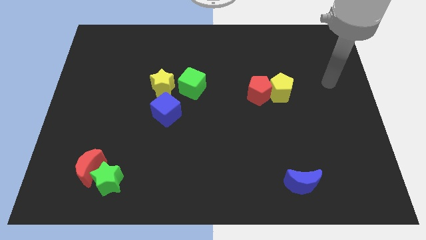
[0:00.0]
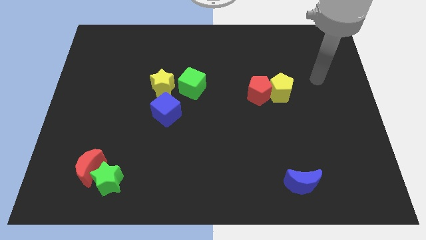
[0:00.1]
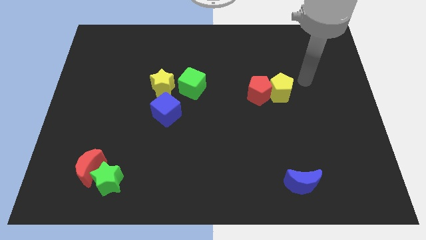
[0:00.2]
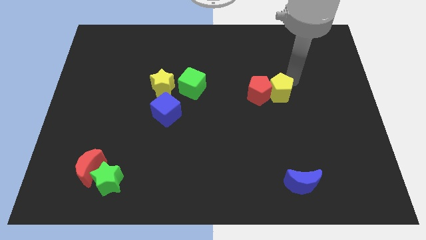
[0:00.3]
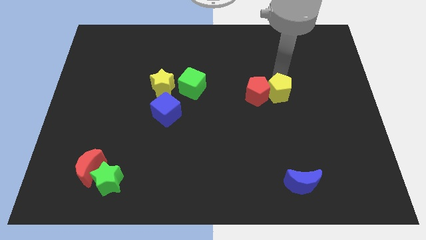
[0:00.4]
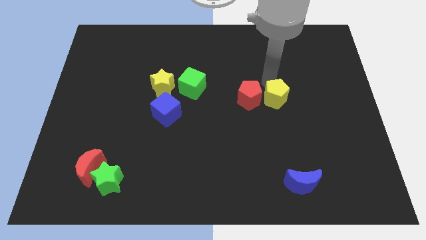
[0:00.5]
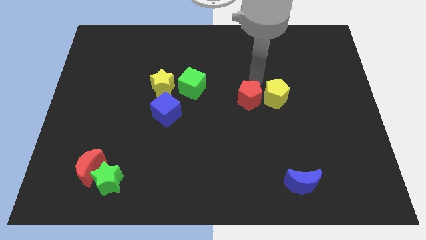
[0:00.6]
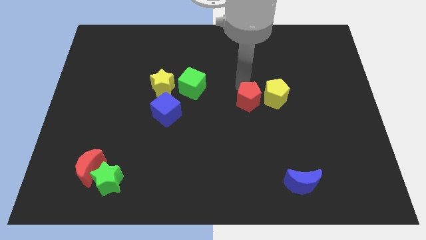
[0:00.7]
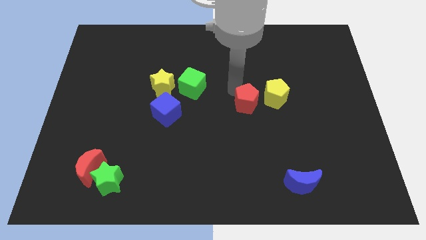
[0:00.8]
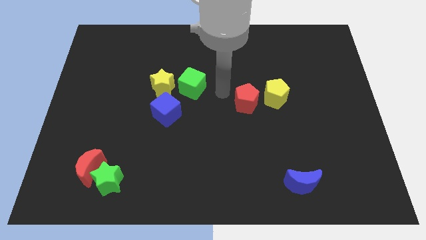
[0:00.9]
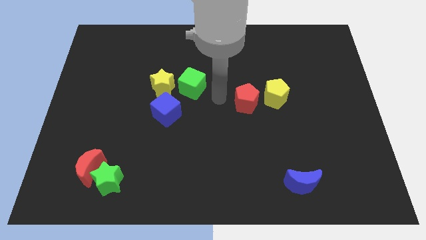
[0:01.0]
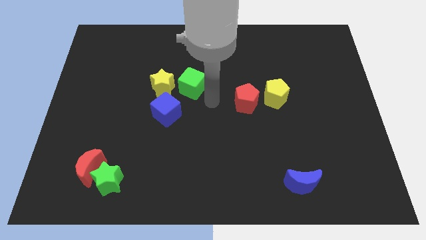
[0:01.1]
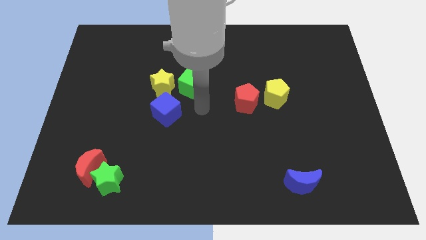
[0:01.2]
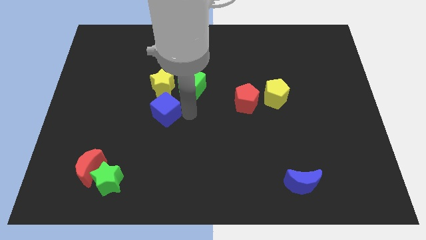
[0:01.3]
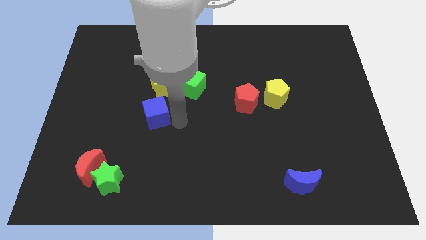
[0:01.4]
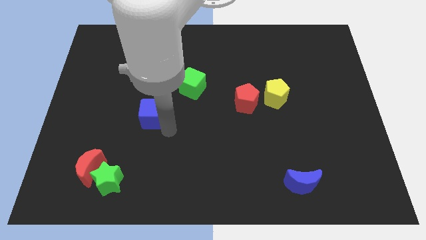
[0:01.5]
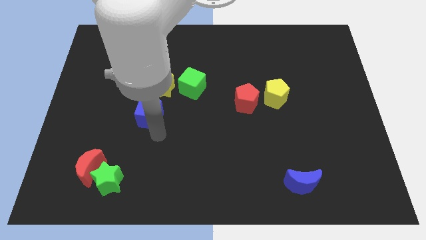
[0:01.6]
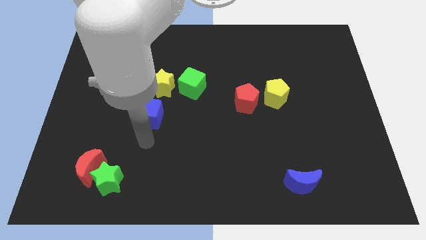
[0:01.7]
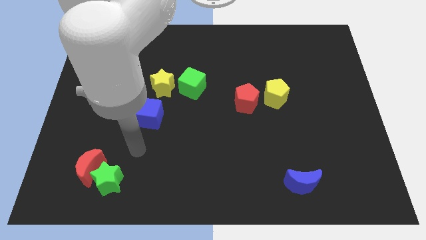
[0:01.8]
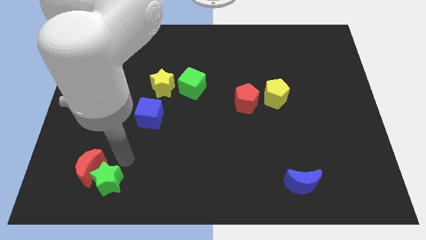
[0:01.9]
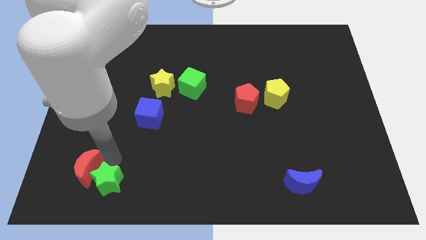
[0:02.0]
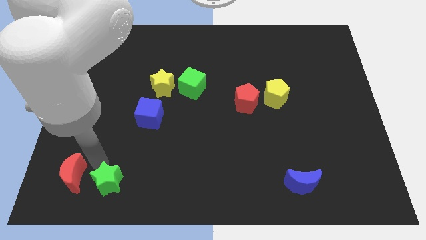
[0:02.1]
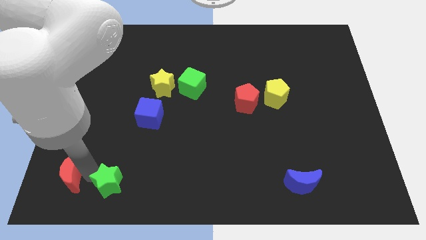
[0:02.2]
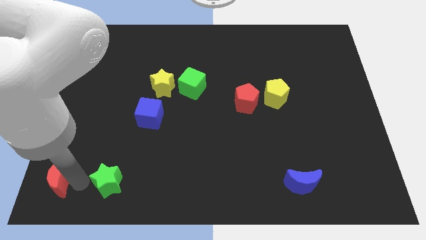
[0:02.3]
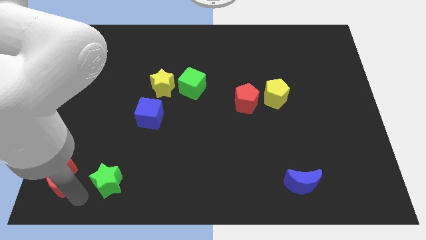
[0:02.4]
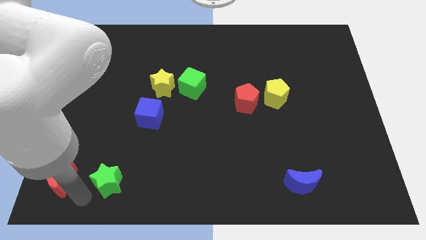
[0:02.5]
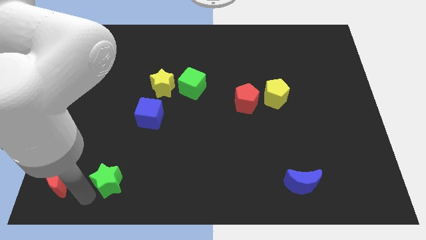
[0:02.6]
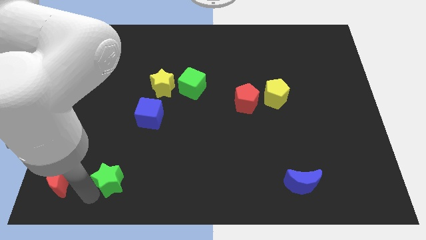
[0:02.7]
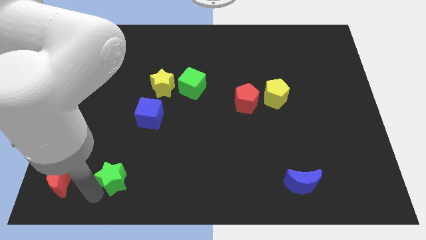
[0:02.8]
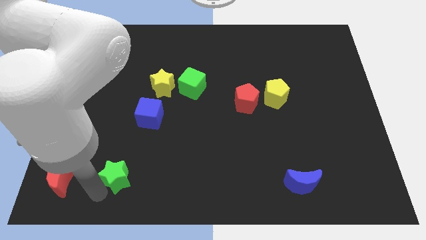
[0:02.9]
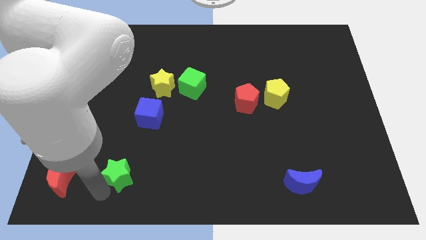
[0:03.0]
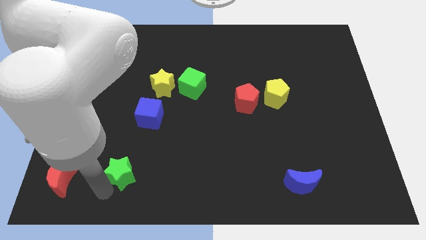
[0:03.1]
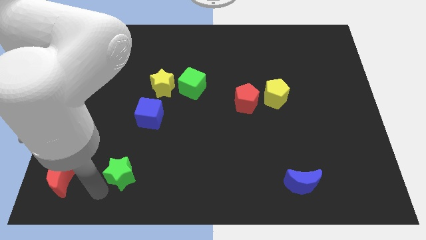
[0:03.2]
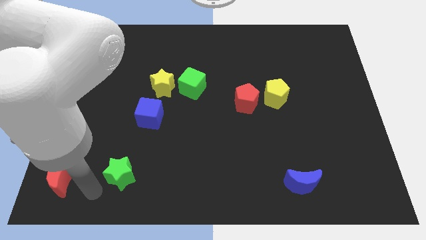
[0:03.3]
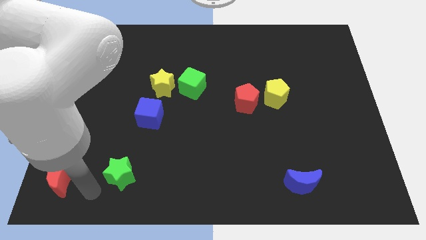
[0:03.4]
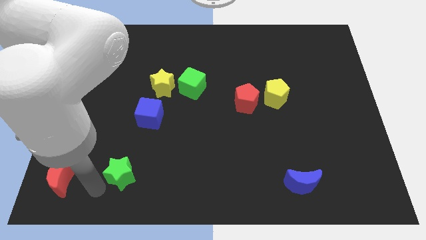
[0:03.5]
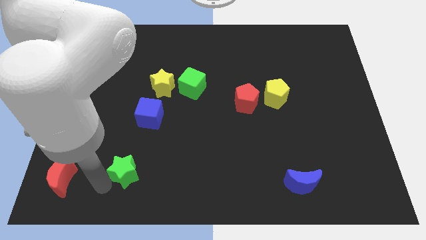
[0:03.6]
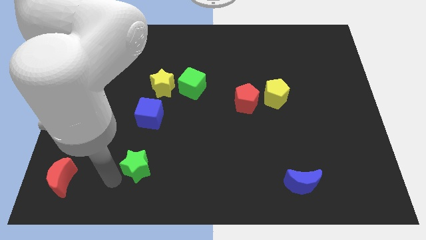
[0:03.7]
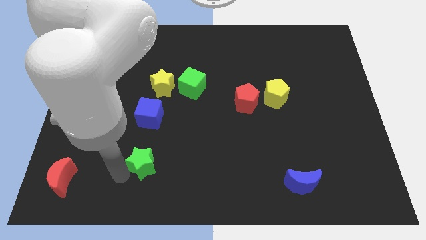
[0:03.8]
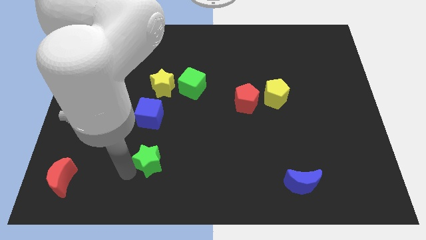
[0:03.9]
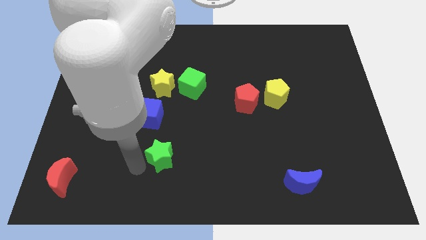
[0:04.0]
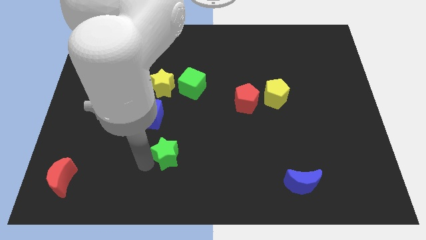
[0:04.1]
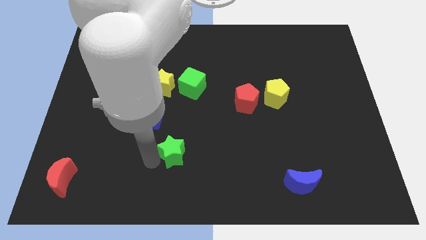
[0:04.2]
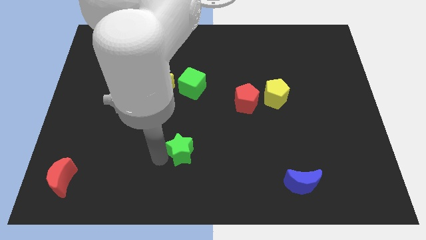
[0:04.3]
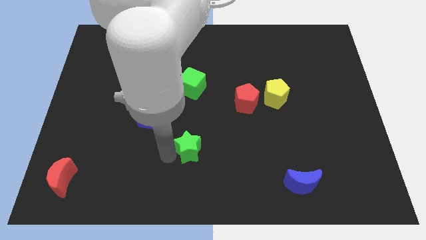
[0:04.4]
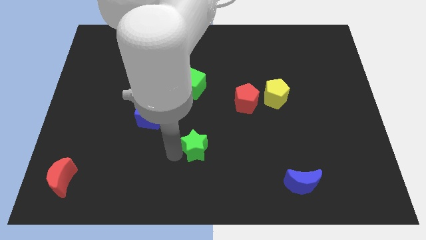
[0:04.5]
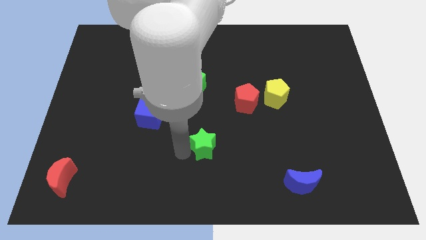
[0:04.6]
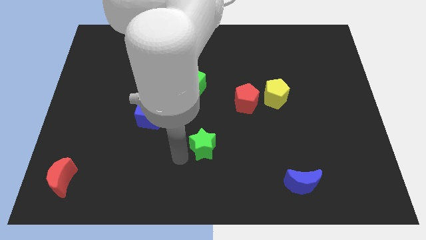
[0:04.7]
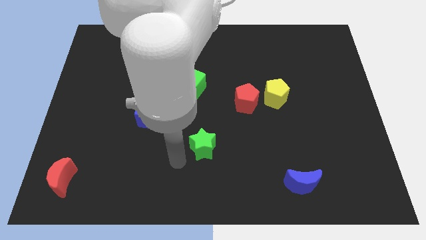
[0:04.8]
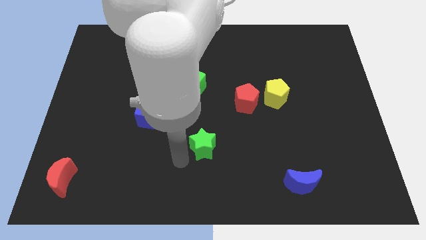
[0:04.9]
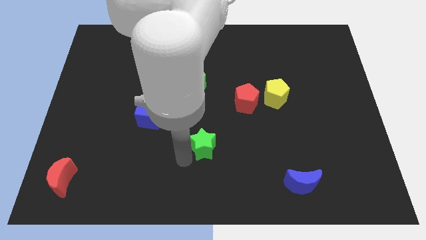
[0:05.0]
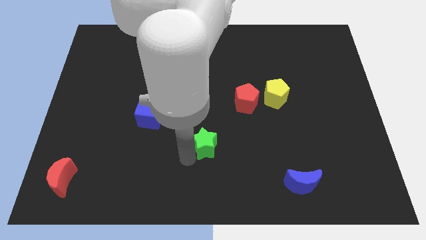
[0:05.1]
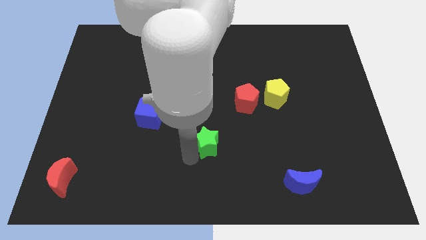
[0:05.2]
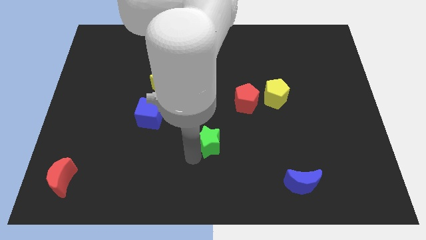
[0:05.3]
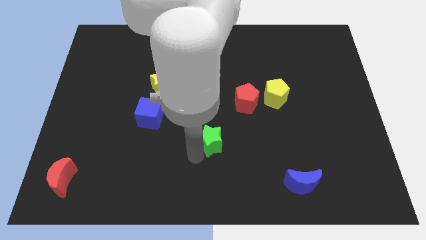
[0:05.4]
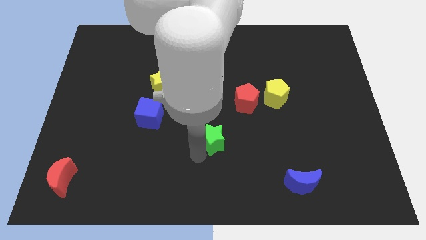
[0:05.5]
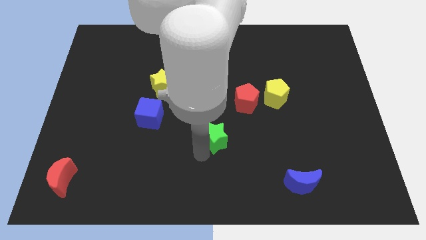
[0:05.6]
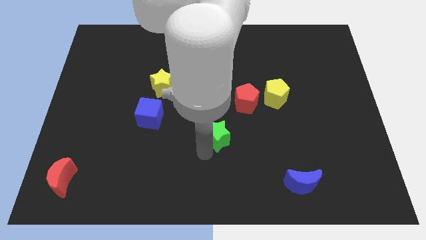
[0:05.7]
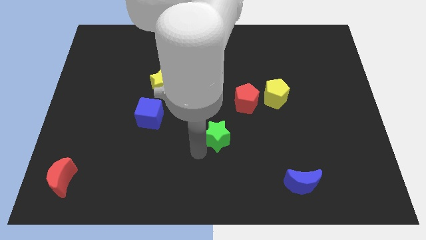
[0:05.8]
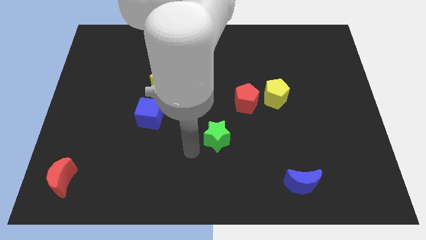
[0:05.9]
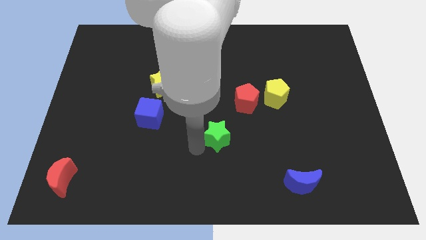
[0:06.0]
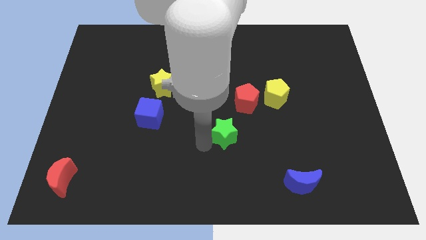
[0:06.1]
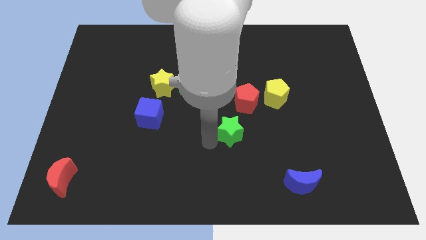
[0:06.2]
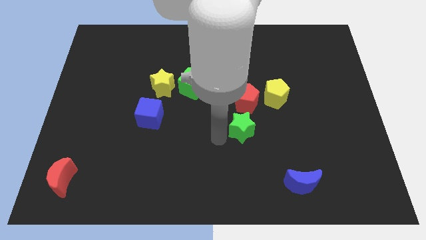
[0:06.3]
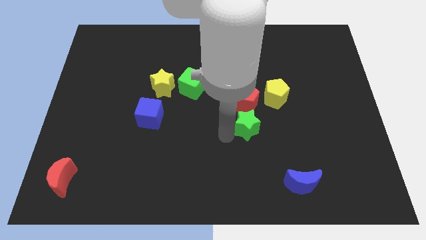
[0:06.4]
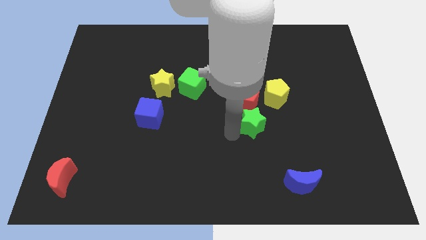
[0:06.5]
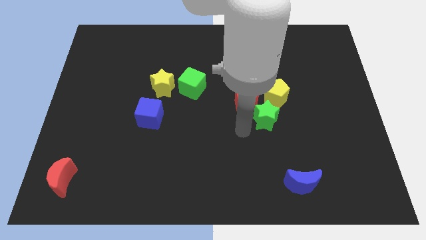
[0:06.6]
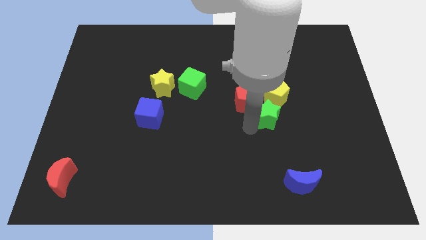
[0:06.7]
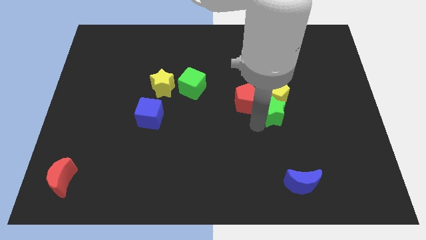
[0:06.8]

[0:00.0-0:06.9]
push the green star close to the yellow pentagon

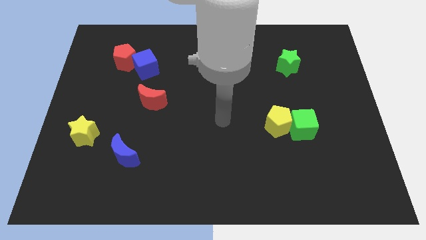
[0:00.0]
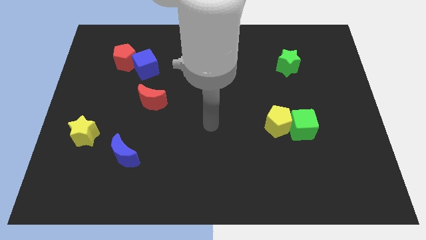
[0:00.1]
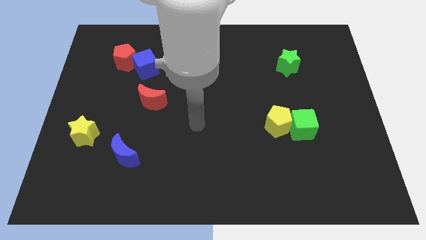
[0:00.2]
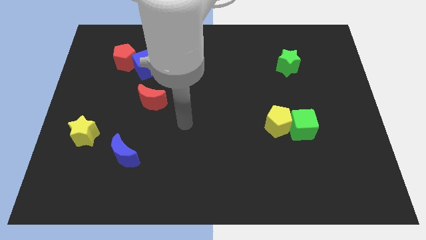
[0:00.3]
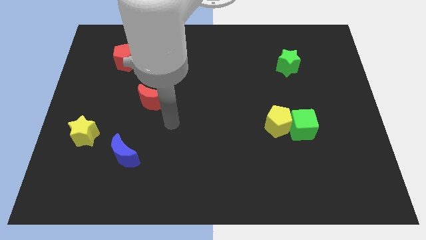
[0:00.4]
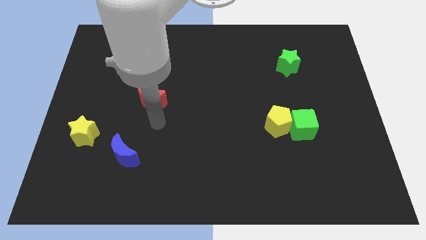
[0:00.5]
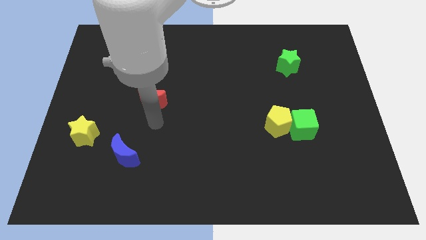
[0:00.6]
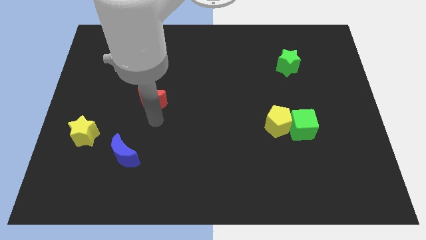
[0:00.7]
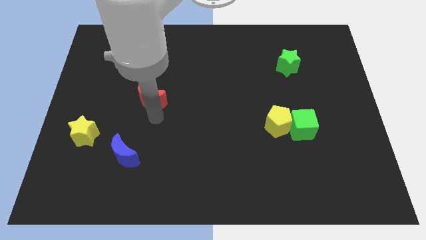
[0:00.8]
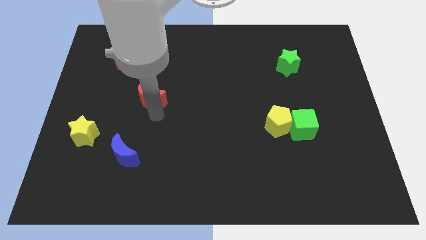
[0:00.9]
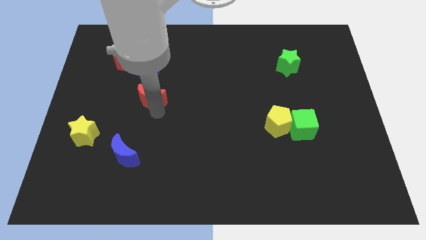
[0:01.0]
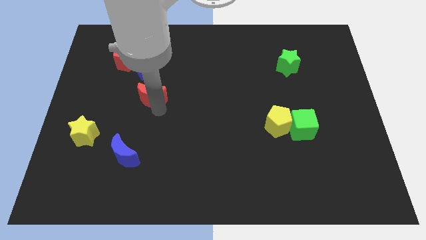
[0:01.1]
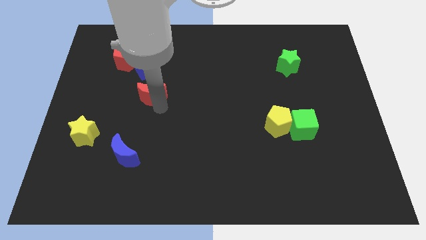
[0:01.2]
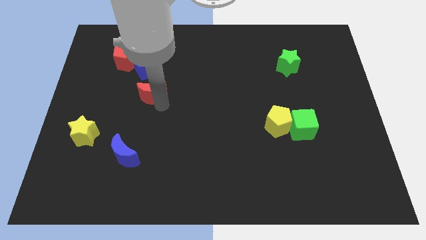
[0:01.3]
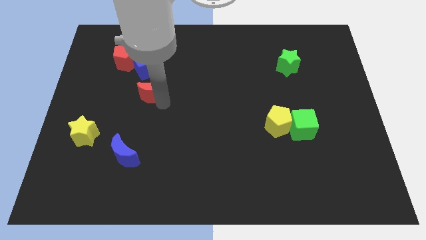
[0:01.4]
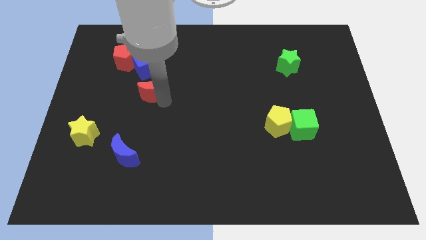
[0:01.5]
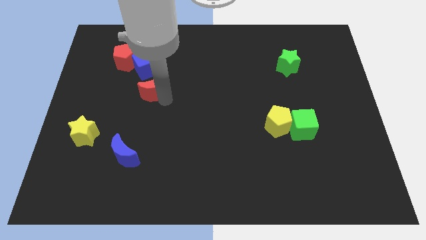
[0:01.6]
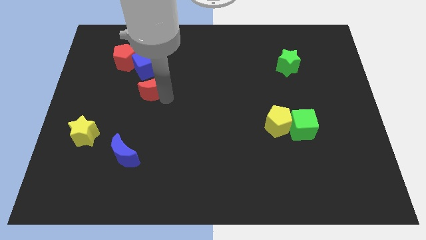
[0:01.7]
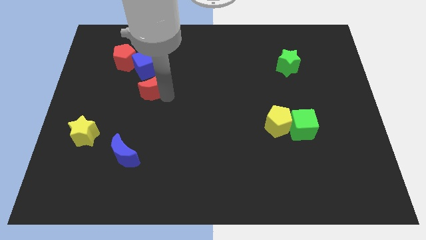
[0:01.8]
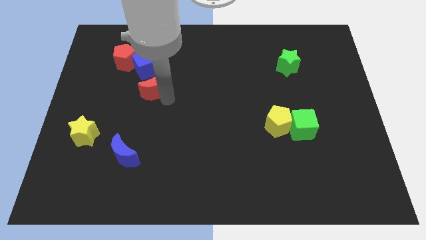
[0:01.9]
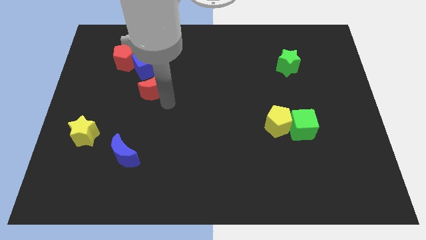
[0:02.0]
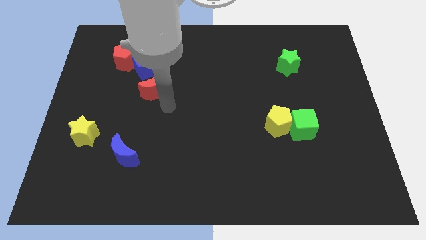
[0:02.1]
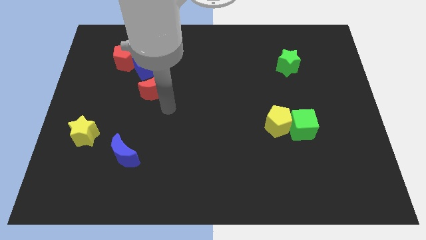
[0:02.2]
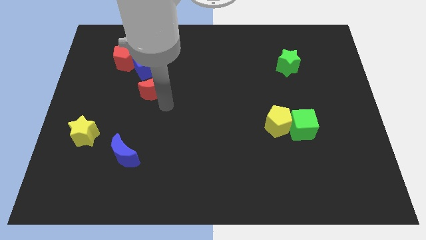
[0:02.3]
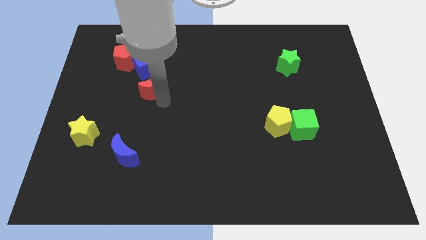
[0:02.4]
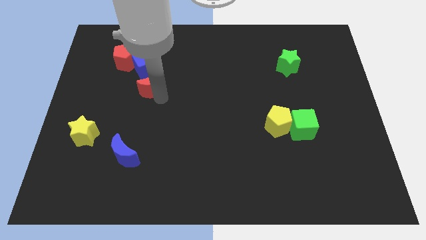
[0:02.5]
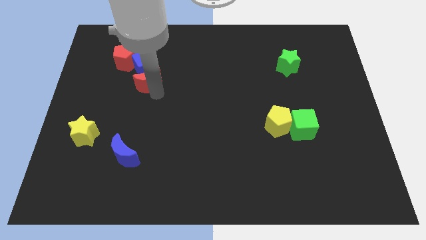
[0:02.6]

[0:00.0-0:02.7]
push the red moon towards the blue cube
